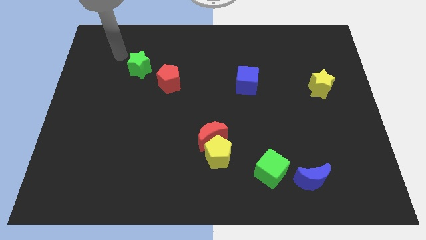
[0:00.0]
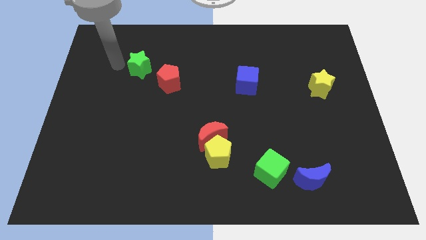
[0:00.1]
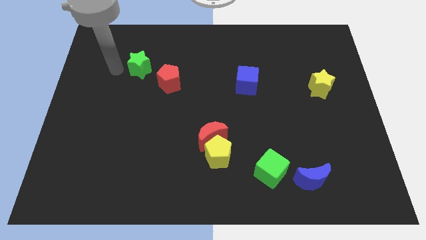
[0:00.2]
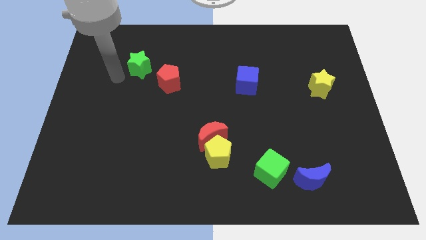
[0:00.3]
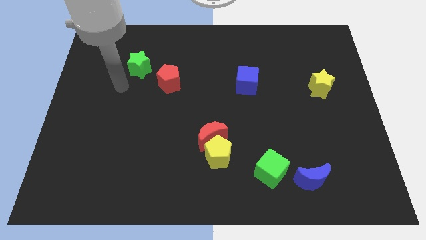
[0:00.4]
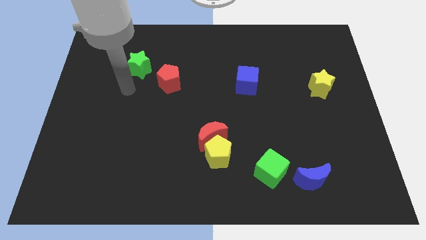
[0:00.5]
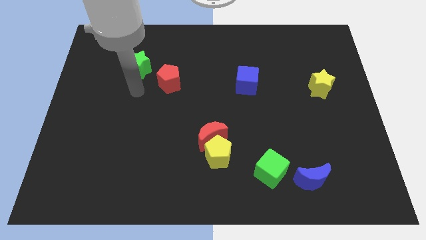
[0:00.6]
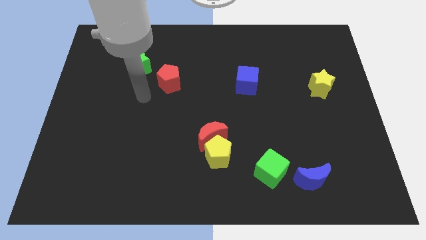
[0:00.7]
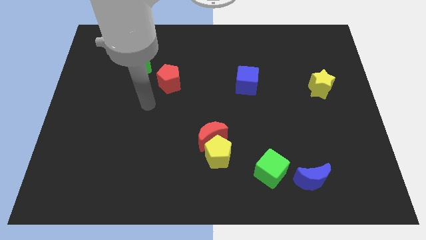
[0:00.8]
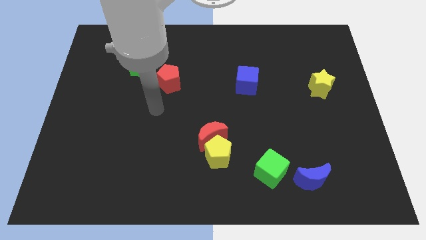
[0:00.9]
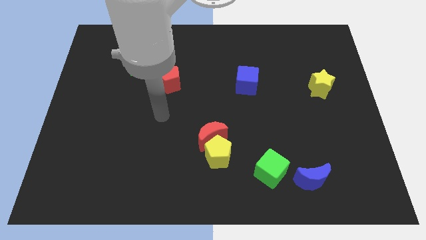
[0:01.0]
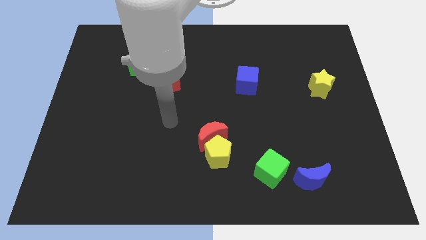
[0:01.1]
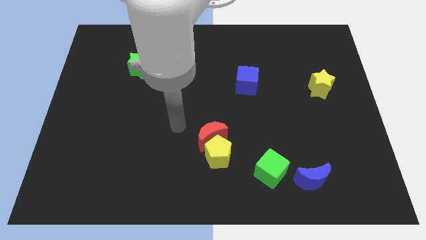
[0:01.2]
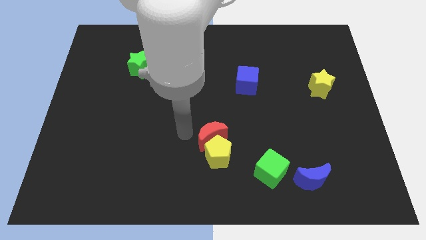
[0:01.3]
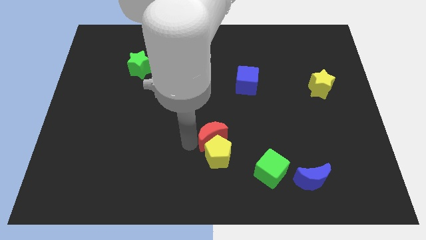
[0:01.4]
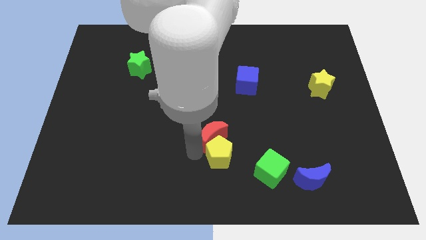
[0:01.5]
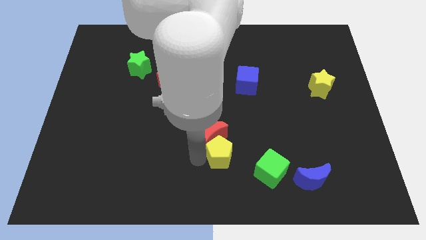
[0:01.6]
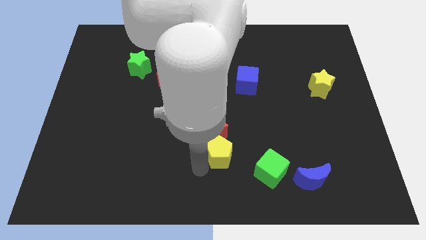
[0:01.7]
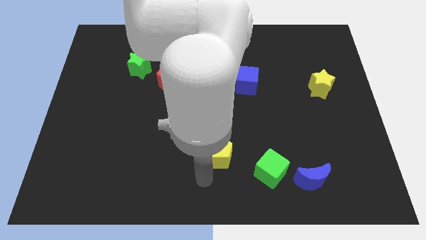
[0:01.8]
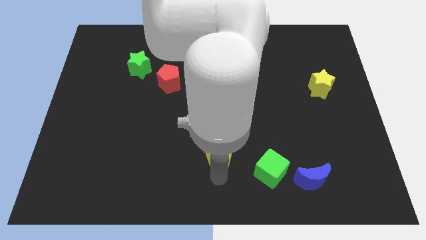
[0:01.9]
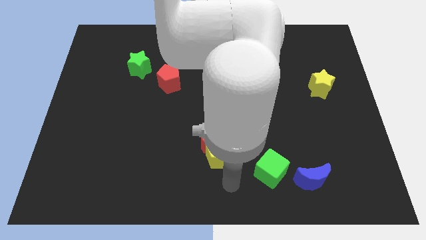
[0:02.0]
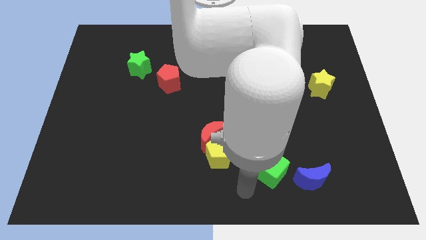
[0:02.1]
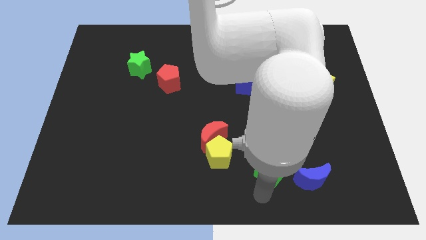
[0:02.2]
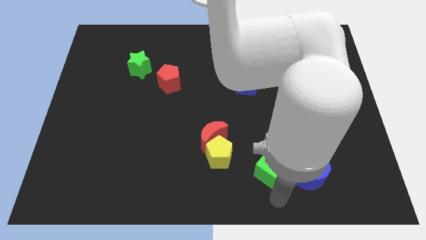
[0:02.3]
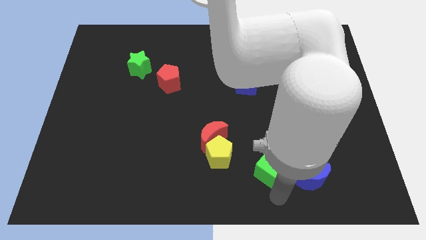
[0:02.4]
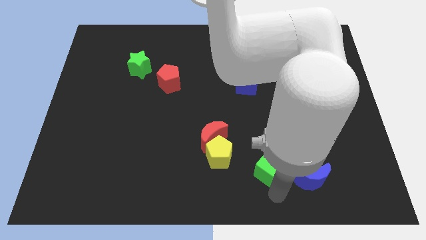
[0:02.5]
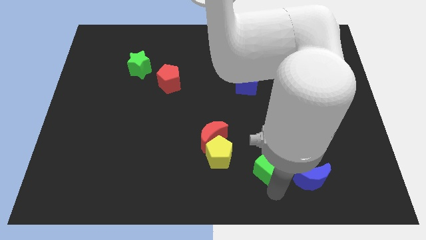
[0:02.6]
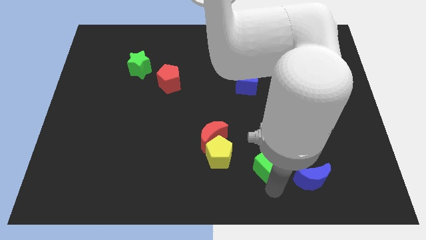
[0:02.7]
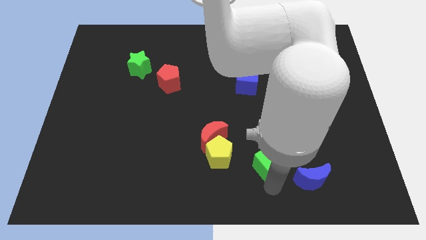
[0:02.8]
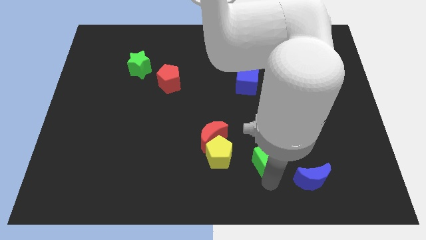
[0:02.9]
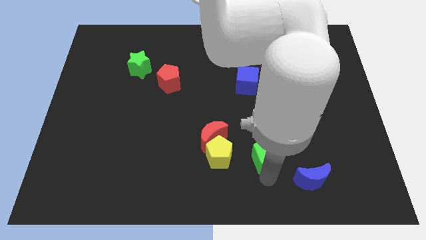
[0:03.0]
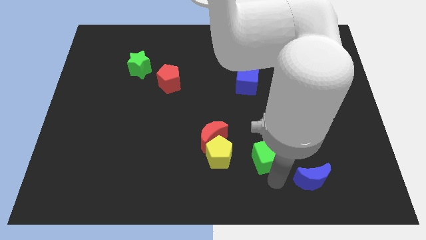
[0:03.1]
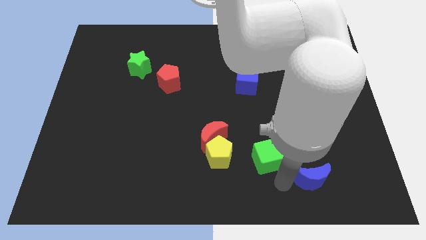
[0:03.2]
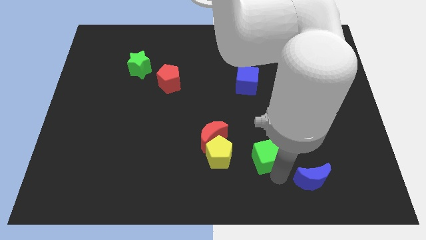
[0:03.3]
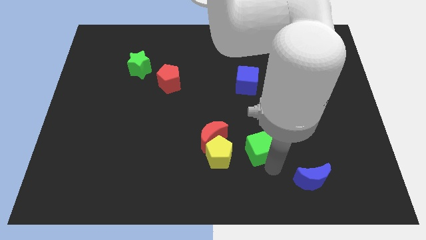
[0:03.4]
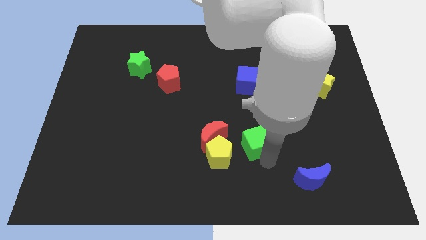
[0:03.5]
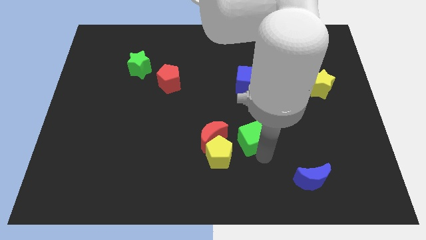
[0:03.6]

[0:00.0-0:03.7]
move the green cube upwards and left diagonally slightly

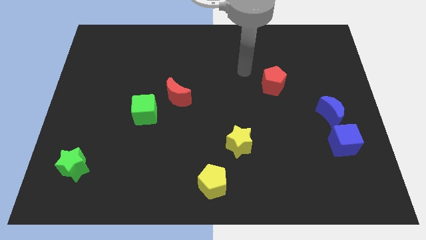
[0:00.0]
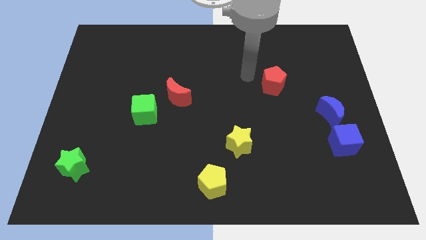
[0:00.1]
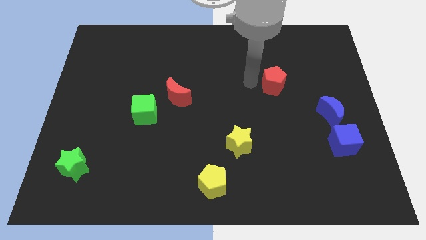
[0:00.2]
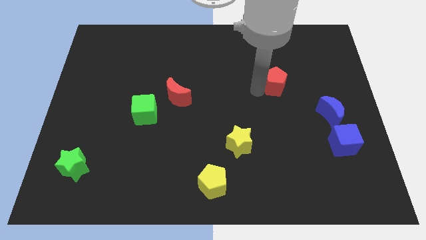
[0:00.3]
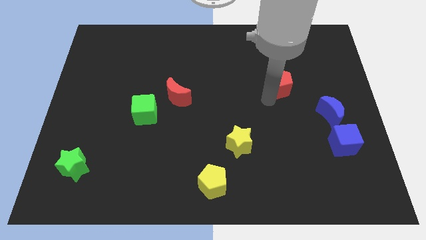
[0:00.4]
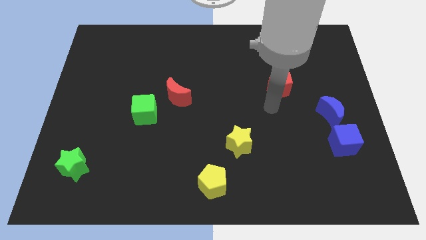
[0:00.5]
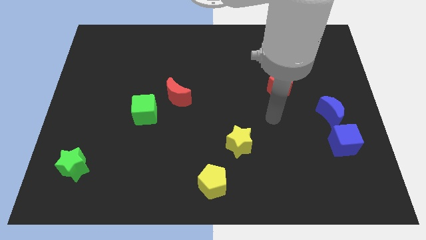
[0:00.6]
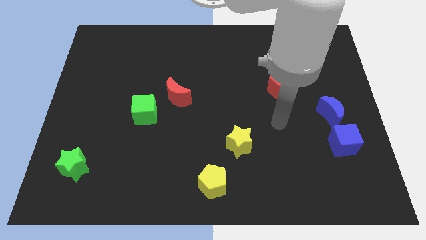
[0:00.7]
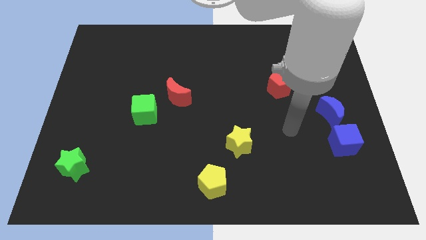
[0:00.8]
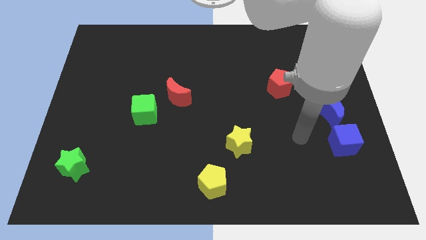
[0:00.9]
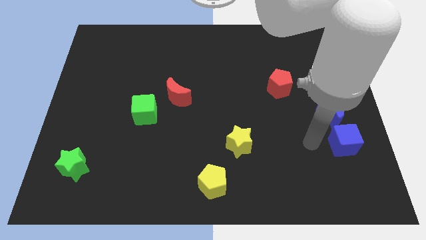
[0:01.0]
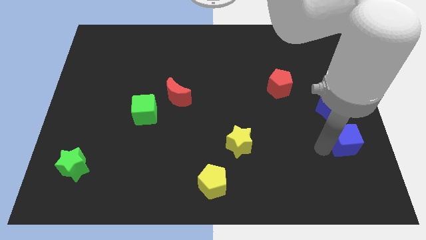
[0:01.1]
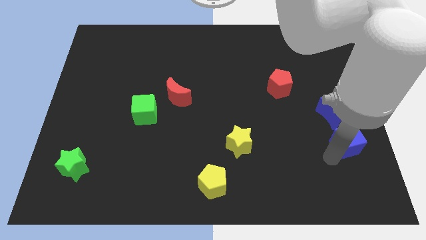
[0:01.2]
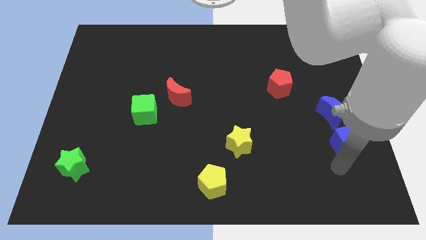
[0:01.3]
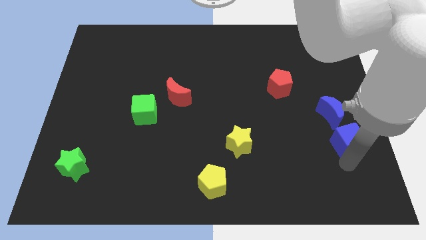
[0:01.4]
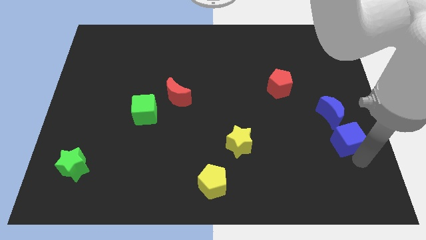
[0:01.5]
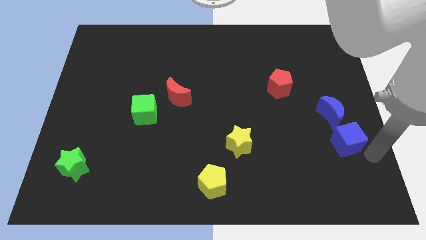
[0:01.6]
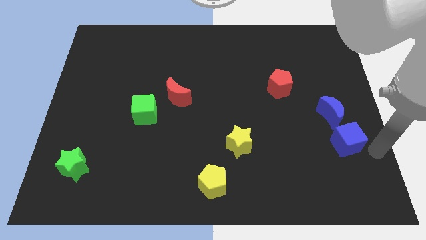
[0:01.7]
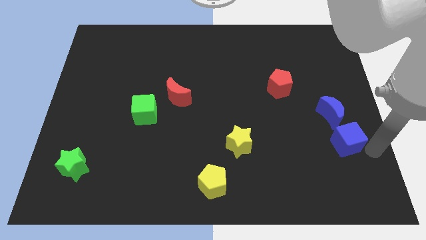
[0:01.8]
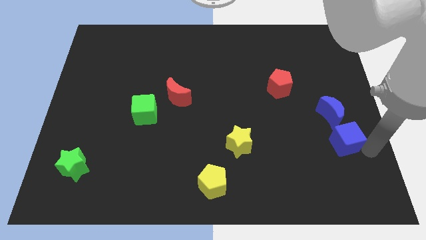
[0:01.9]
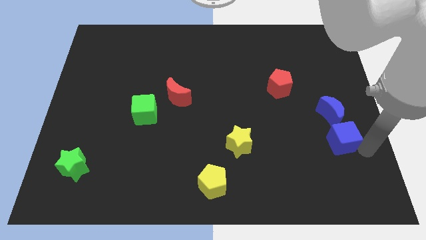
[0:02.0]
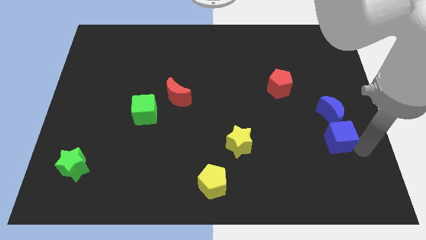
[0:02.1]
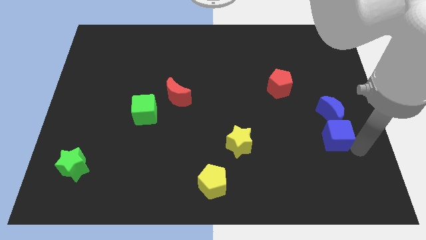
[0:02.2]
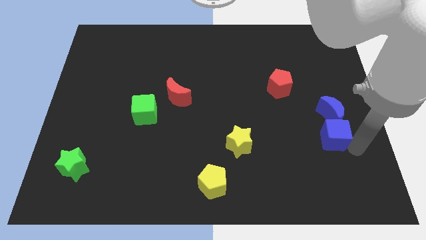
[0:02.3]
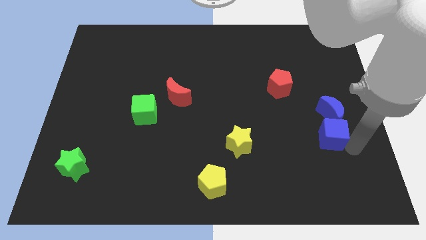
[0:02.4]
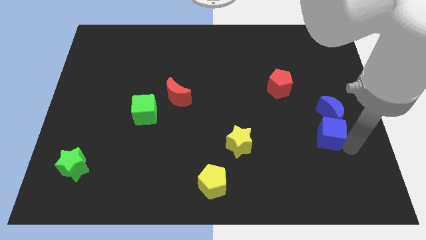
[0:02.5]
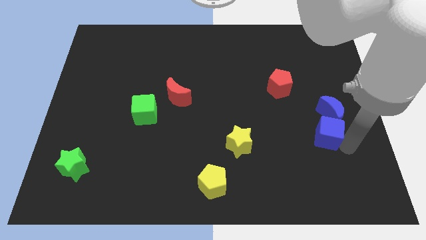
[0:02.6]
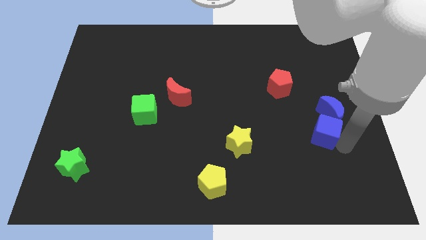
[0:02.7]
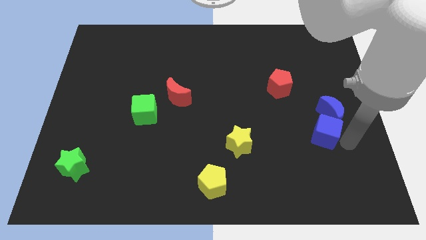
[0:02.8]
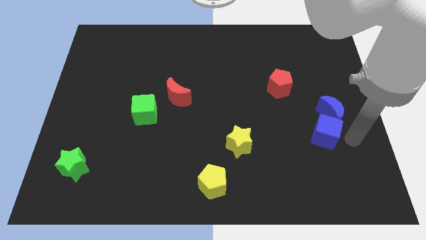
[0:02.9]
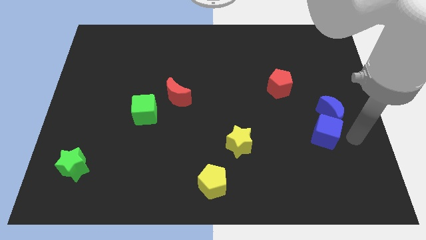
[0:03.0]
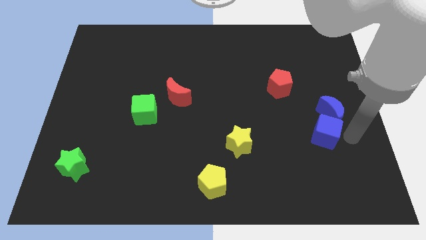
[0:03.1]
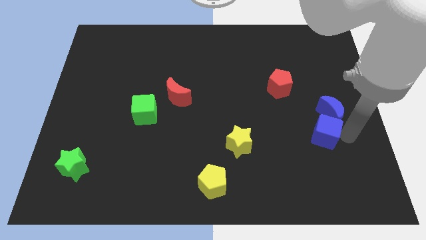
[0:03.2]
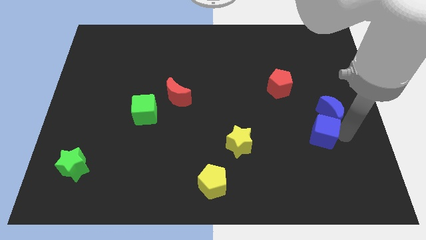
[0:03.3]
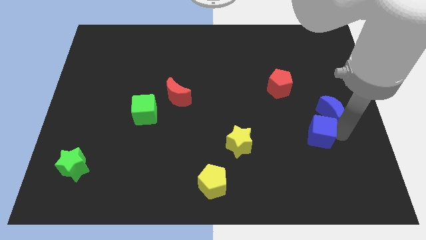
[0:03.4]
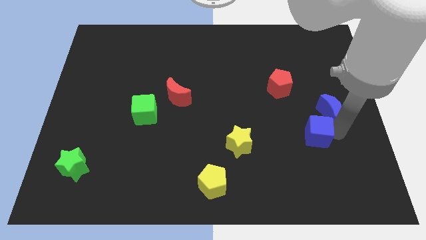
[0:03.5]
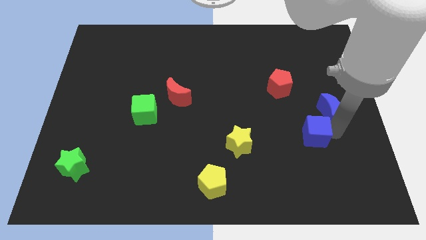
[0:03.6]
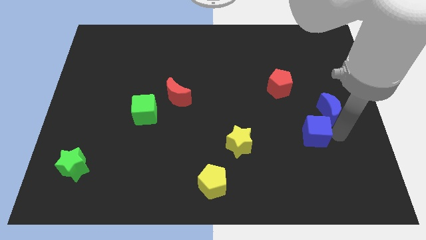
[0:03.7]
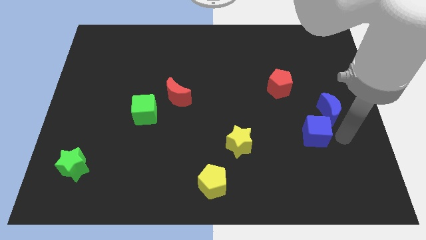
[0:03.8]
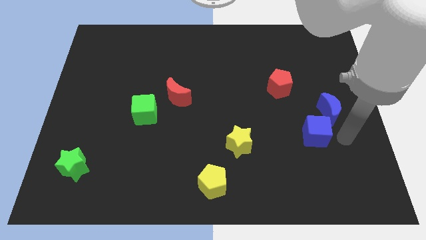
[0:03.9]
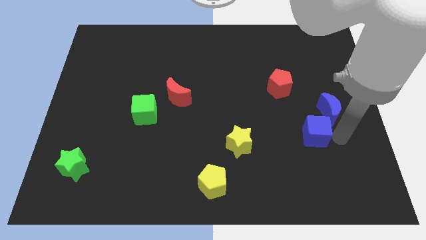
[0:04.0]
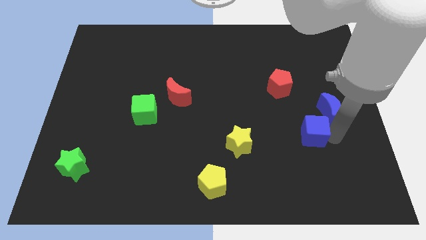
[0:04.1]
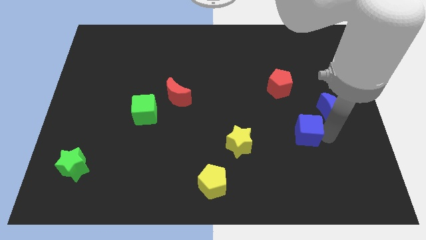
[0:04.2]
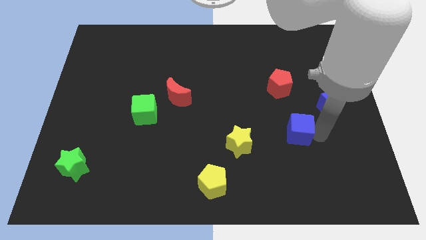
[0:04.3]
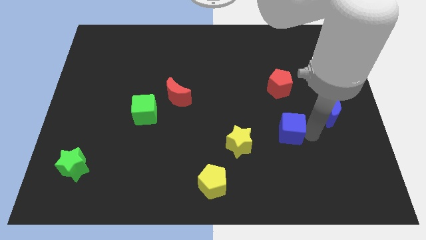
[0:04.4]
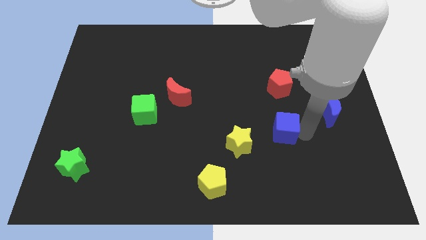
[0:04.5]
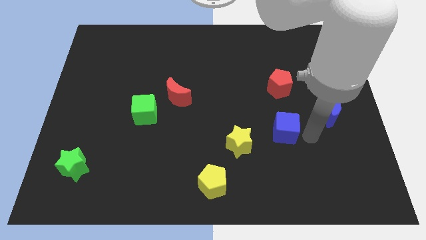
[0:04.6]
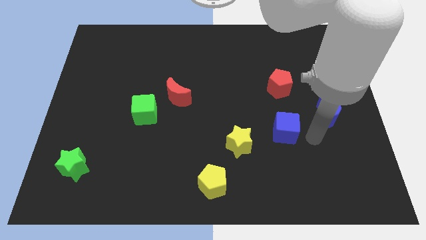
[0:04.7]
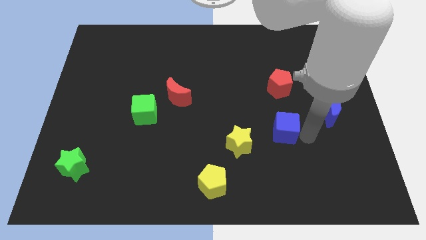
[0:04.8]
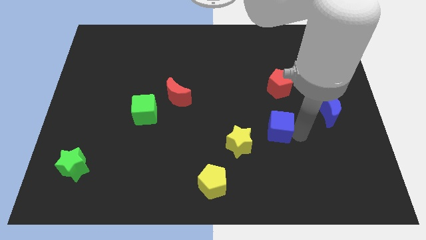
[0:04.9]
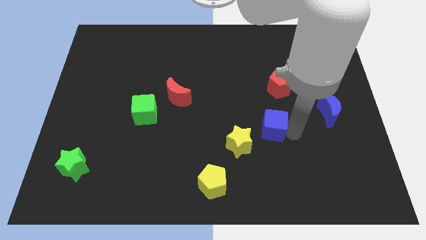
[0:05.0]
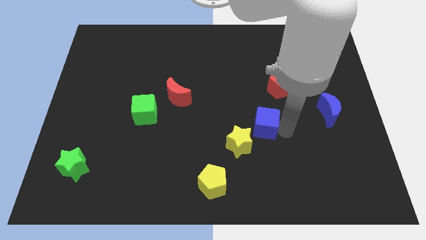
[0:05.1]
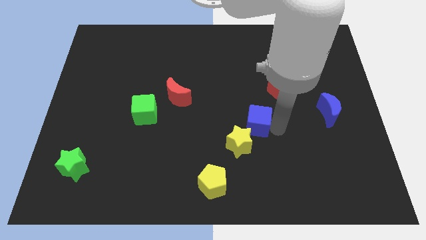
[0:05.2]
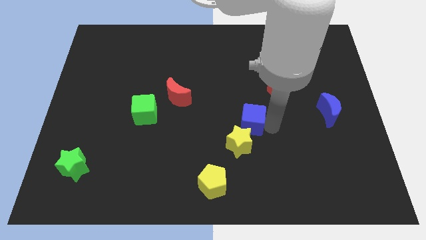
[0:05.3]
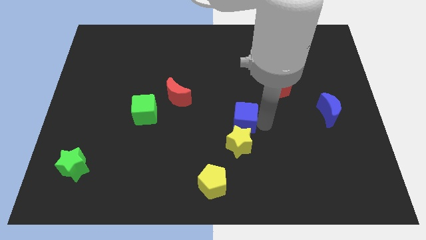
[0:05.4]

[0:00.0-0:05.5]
slide the blue cube to the left
